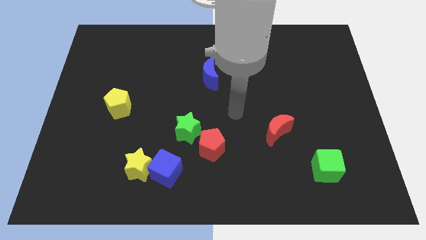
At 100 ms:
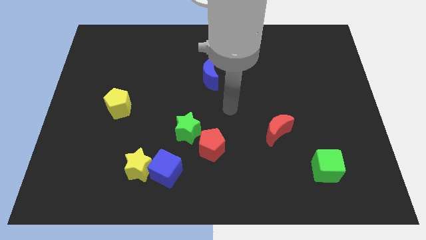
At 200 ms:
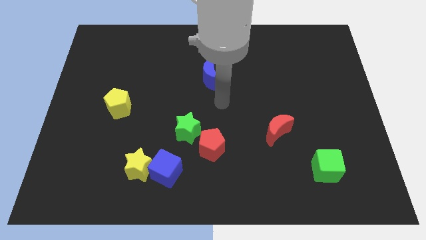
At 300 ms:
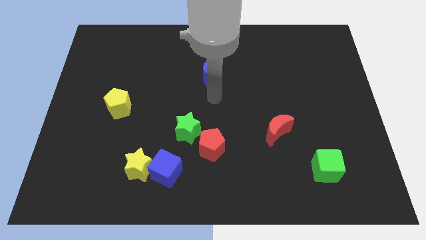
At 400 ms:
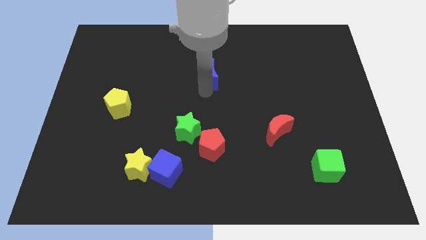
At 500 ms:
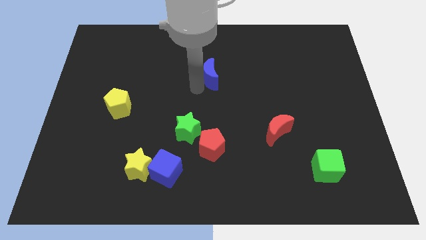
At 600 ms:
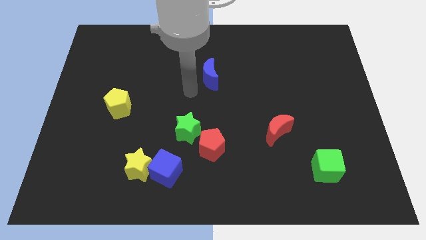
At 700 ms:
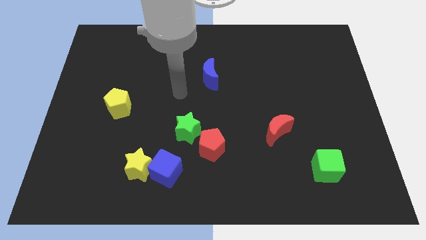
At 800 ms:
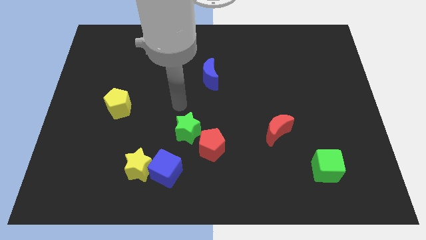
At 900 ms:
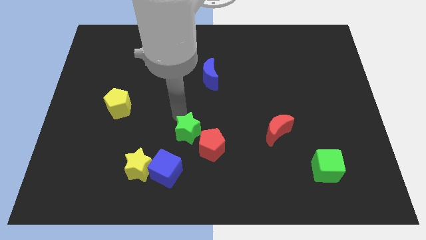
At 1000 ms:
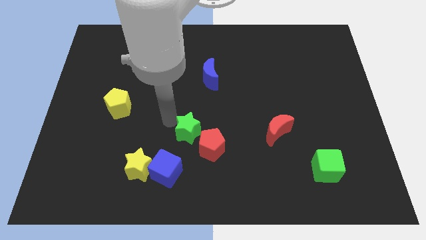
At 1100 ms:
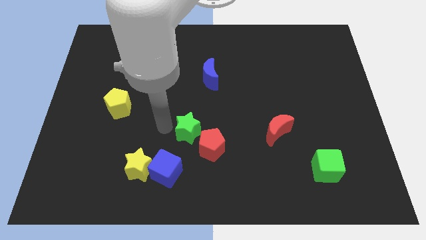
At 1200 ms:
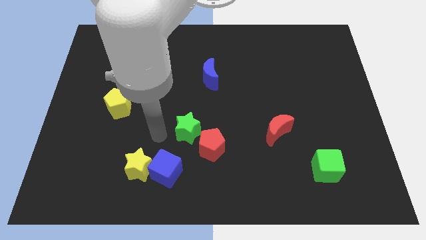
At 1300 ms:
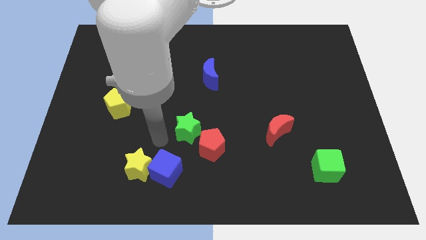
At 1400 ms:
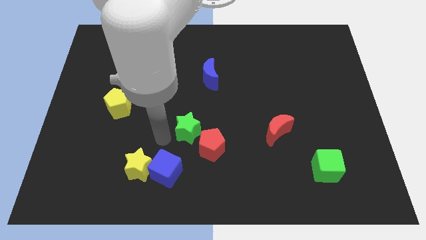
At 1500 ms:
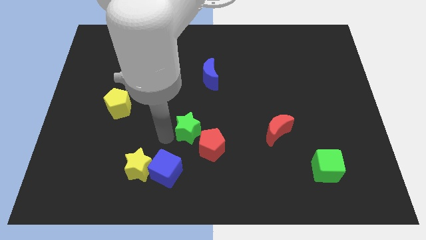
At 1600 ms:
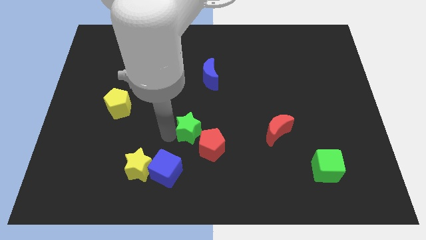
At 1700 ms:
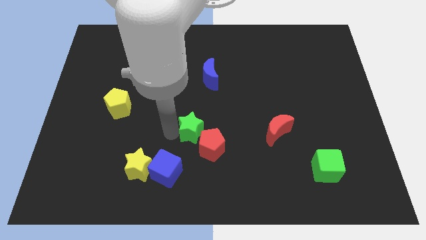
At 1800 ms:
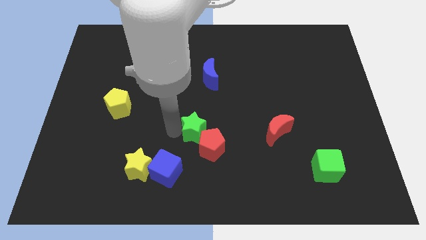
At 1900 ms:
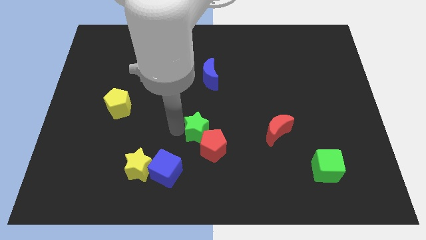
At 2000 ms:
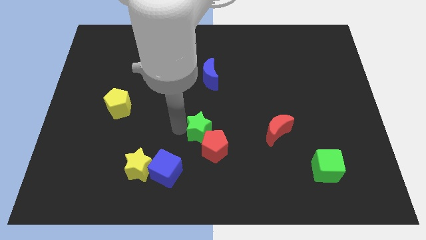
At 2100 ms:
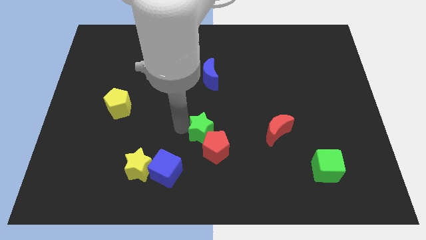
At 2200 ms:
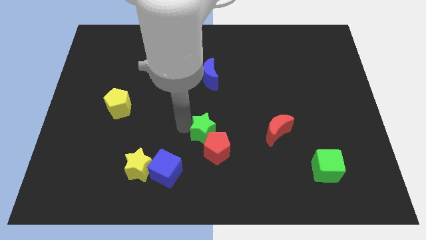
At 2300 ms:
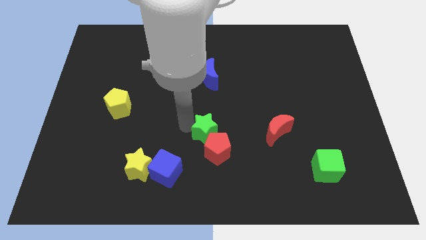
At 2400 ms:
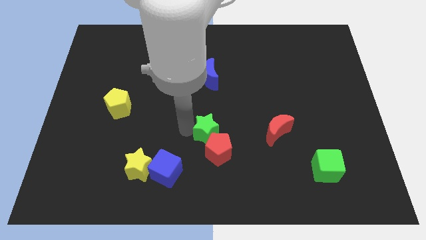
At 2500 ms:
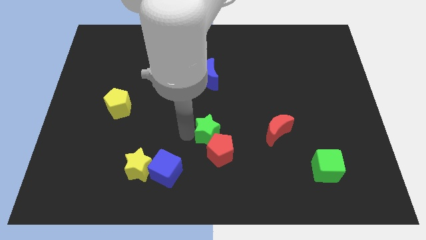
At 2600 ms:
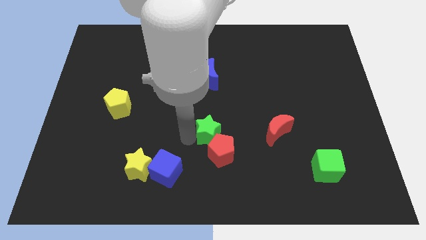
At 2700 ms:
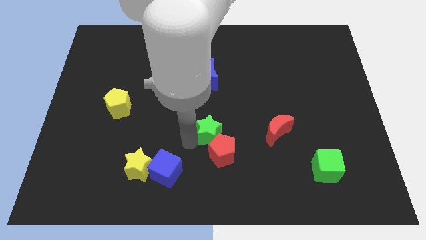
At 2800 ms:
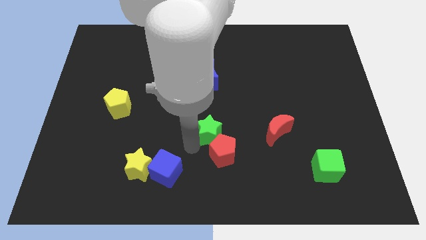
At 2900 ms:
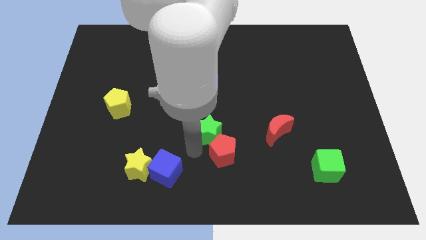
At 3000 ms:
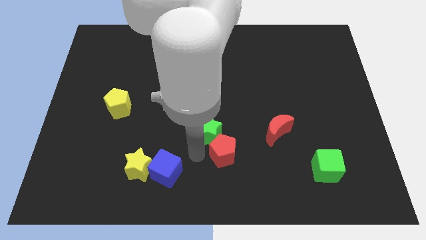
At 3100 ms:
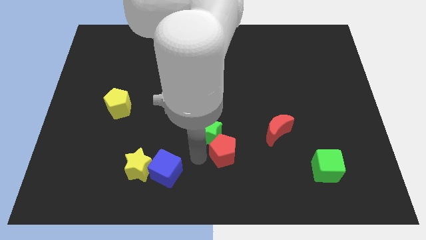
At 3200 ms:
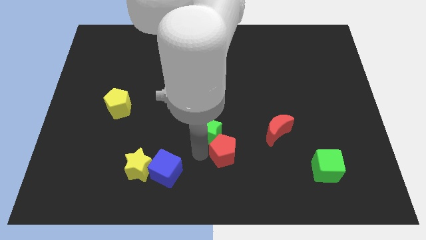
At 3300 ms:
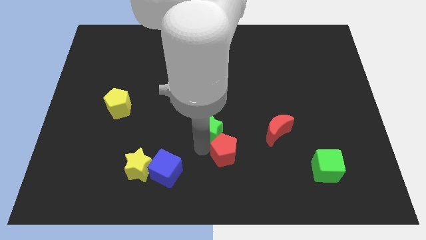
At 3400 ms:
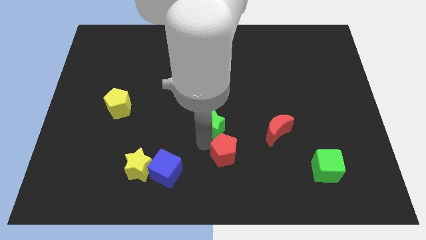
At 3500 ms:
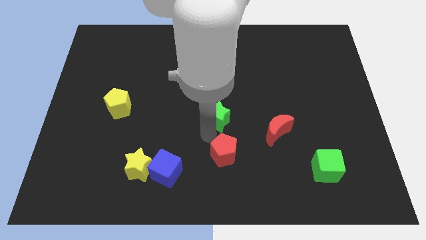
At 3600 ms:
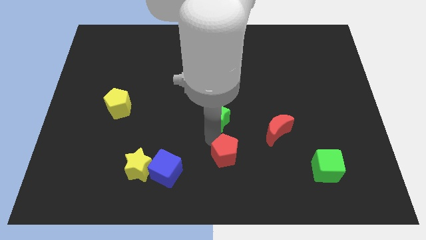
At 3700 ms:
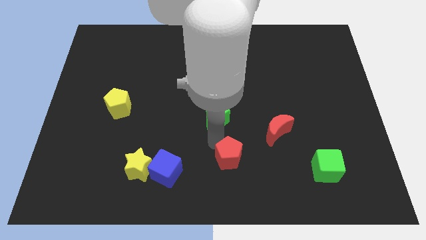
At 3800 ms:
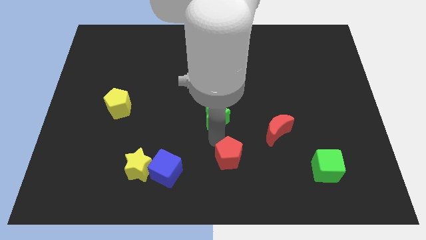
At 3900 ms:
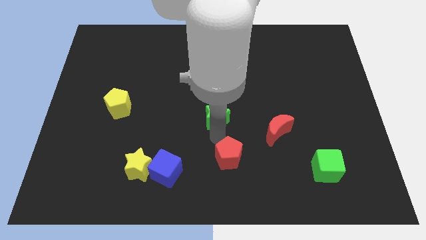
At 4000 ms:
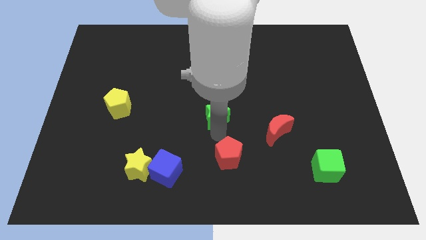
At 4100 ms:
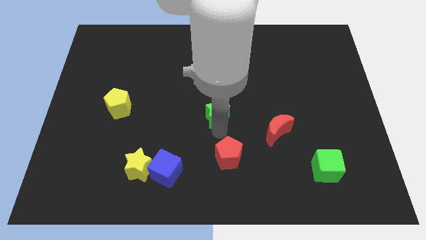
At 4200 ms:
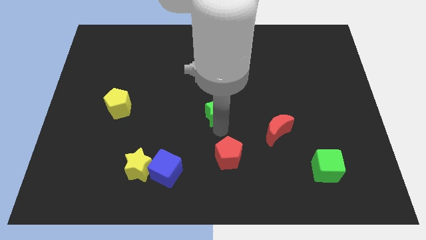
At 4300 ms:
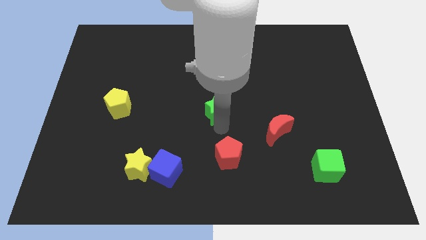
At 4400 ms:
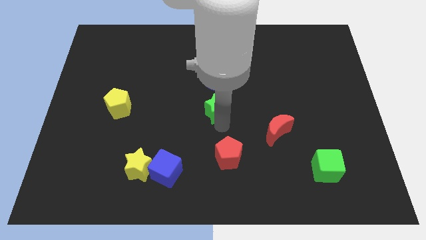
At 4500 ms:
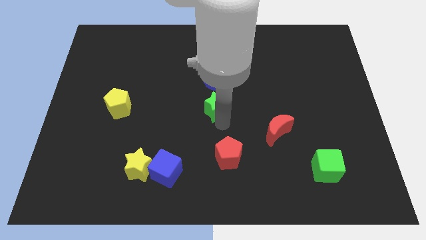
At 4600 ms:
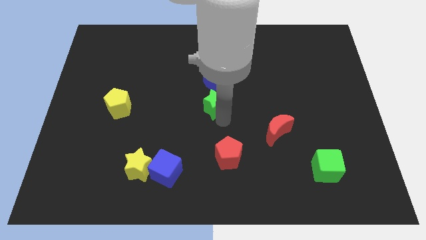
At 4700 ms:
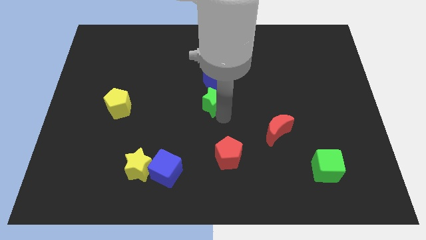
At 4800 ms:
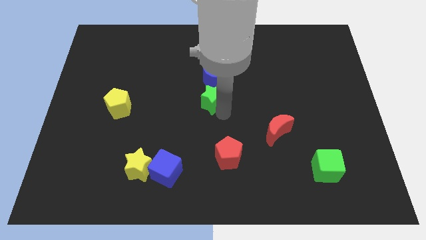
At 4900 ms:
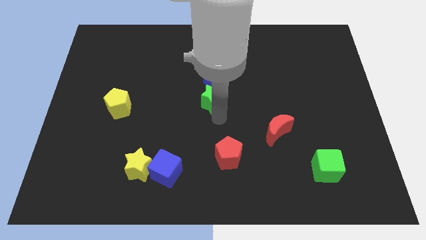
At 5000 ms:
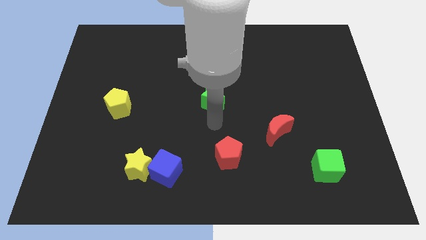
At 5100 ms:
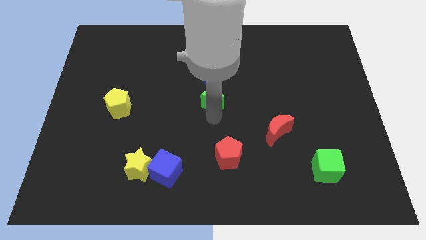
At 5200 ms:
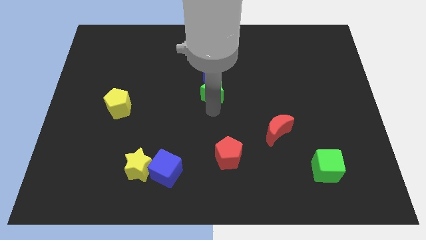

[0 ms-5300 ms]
put the green star next to the blue moon

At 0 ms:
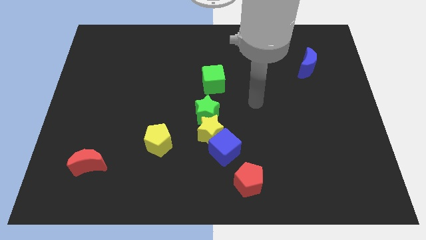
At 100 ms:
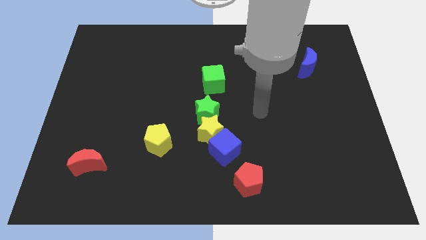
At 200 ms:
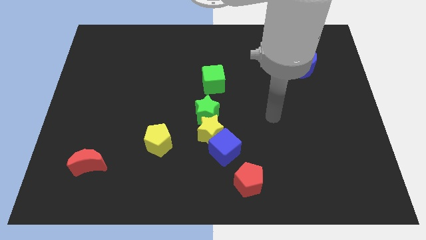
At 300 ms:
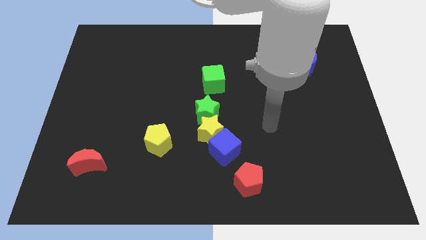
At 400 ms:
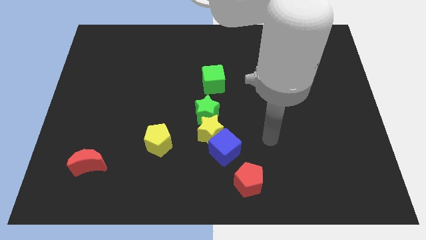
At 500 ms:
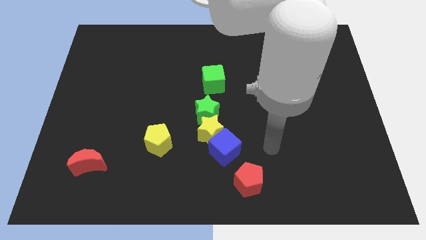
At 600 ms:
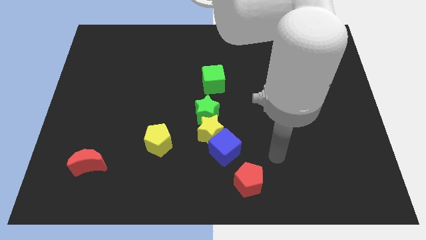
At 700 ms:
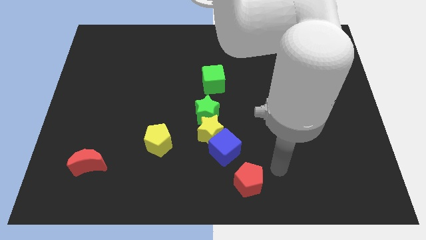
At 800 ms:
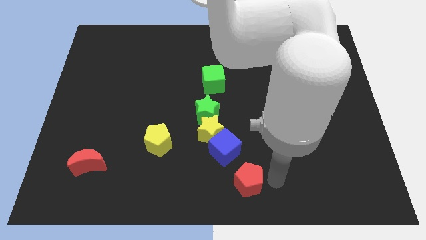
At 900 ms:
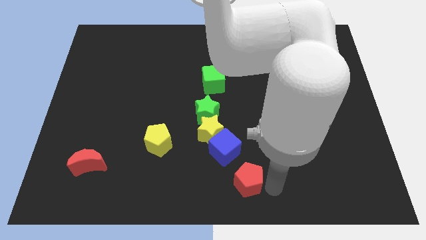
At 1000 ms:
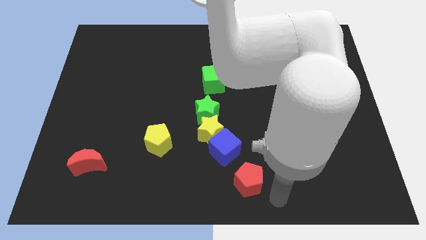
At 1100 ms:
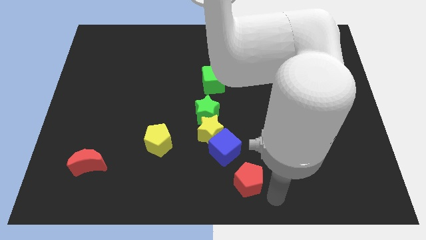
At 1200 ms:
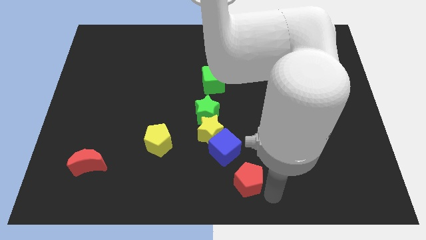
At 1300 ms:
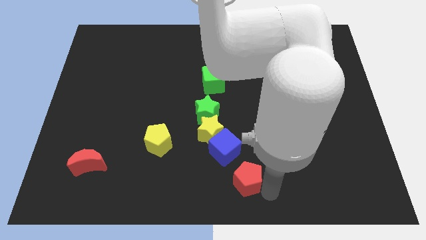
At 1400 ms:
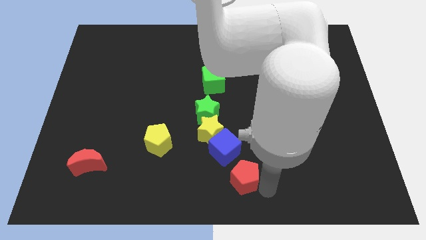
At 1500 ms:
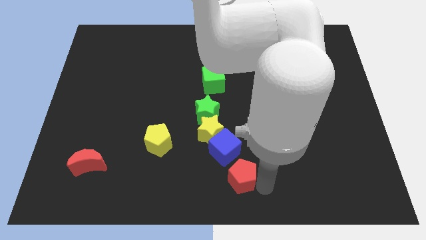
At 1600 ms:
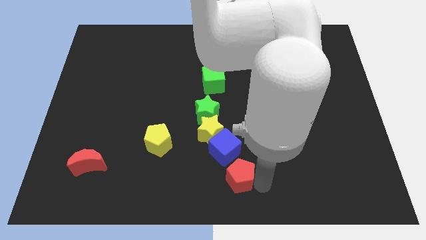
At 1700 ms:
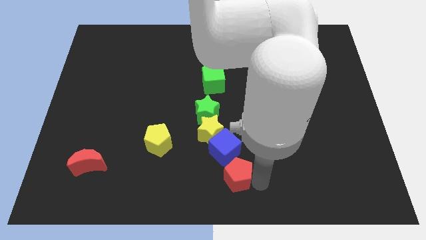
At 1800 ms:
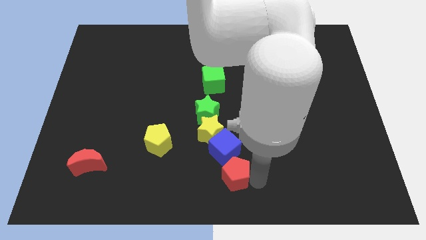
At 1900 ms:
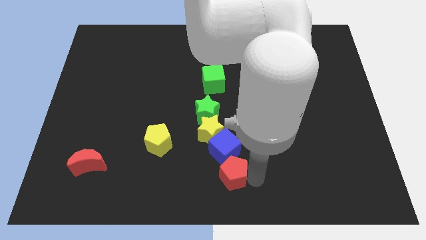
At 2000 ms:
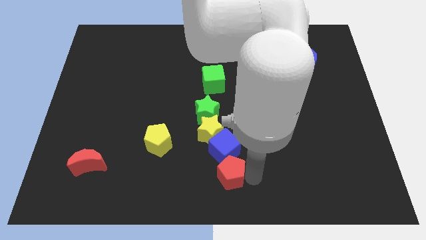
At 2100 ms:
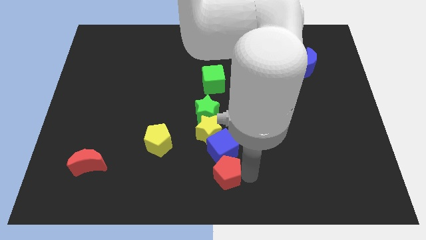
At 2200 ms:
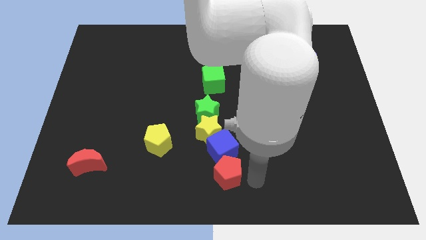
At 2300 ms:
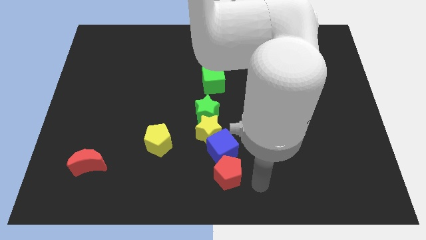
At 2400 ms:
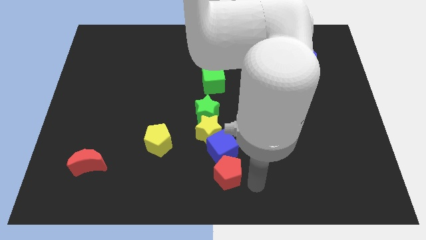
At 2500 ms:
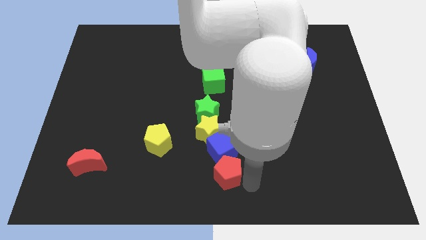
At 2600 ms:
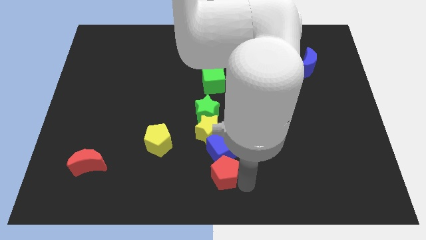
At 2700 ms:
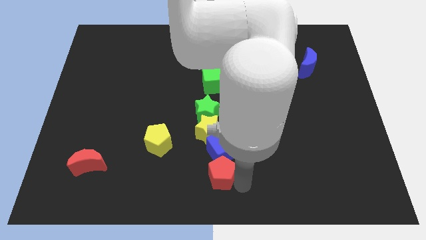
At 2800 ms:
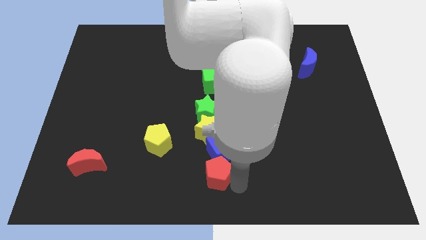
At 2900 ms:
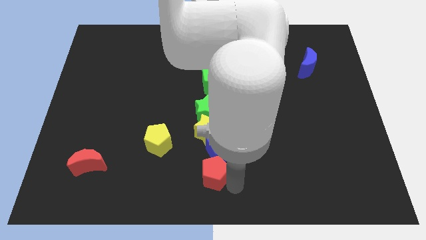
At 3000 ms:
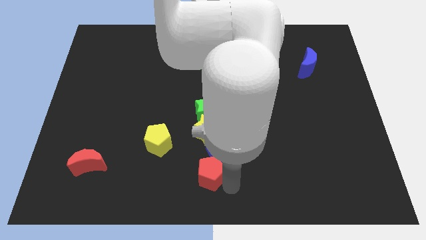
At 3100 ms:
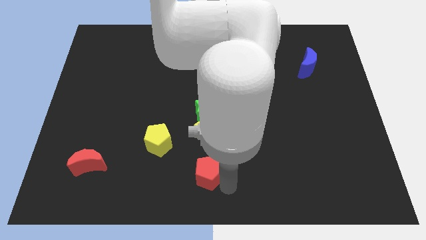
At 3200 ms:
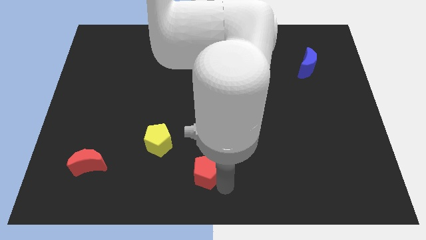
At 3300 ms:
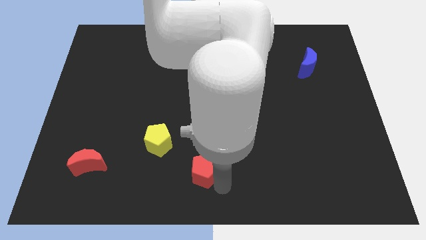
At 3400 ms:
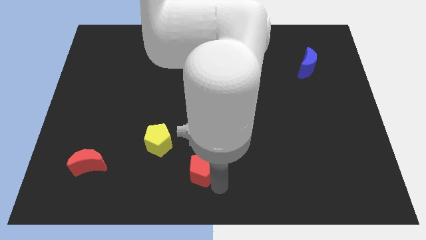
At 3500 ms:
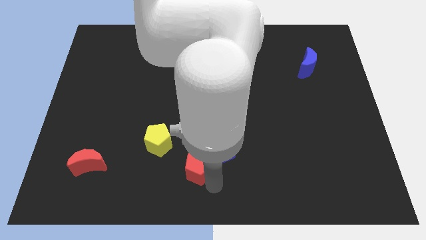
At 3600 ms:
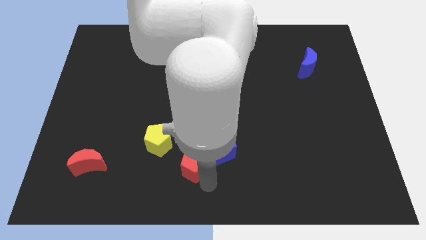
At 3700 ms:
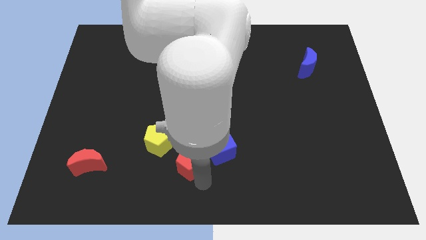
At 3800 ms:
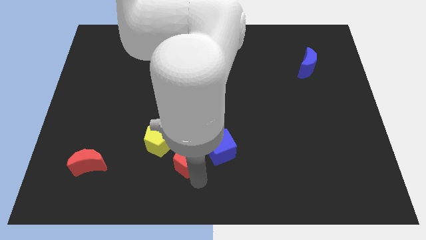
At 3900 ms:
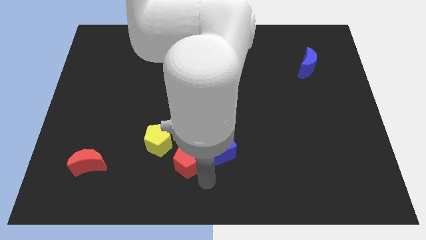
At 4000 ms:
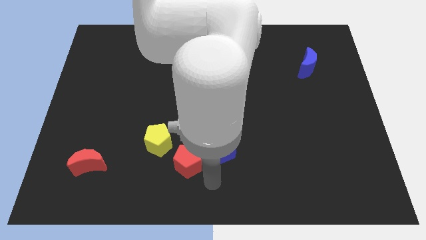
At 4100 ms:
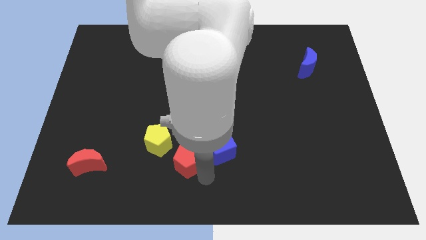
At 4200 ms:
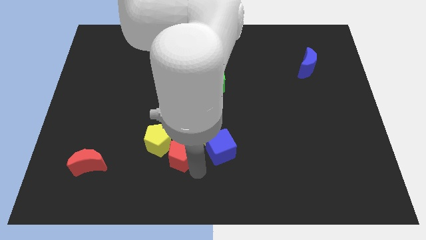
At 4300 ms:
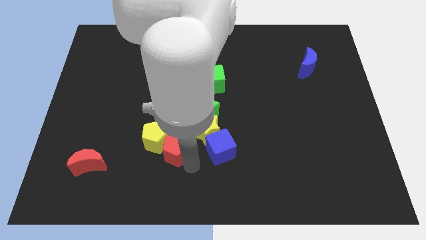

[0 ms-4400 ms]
put the red pentagon towards the yellow pentagon
